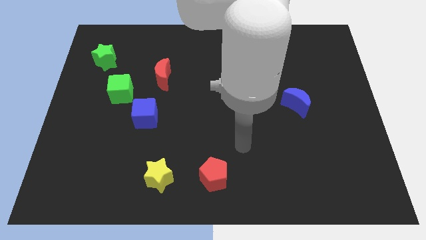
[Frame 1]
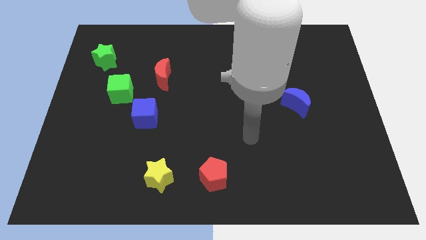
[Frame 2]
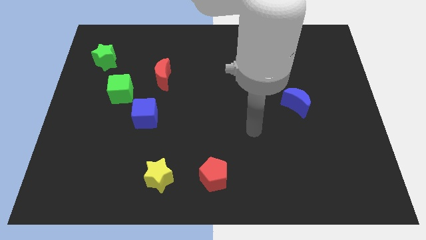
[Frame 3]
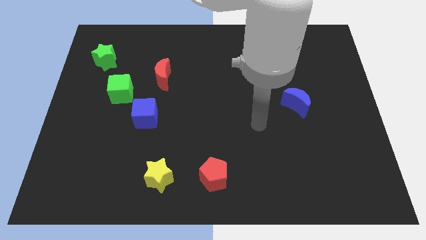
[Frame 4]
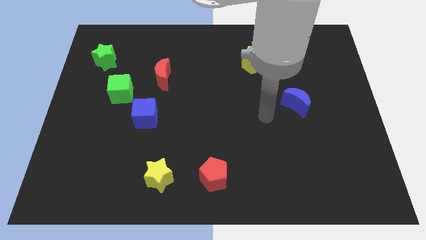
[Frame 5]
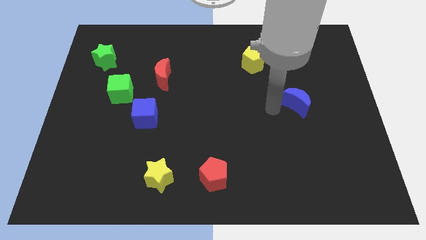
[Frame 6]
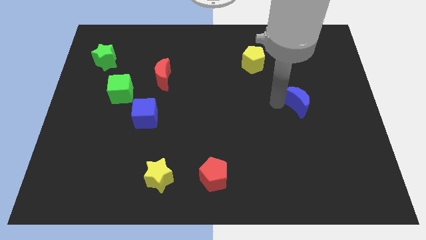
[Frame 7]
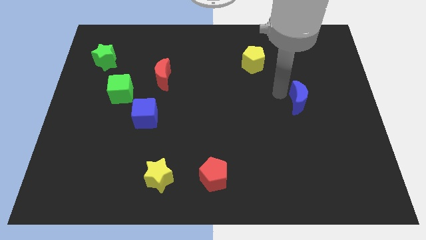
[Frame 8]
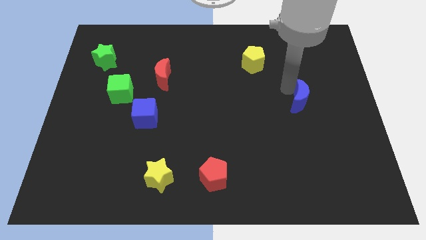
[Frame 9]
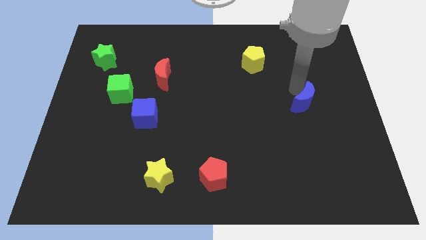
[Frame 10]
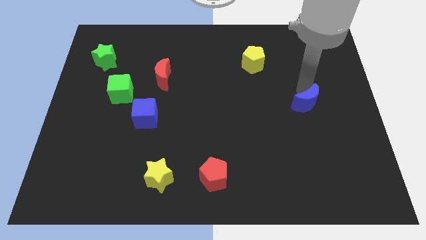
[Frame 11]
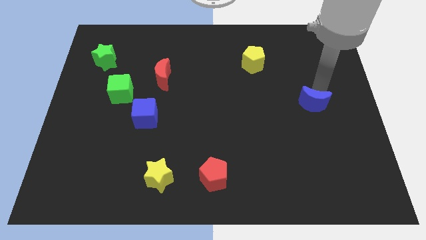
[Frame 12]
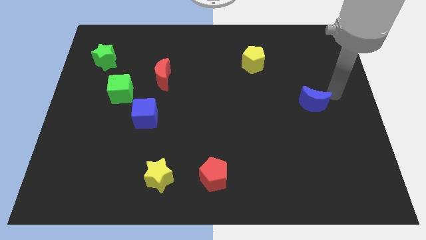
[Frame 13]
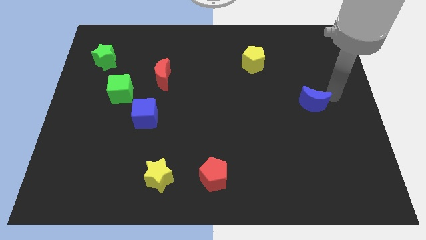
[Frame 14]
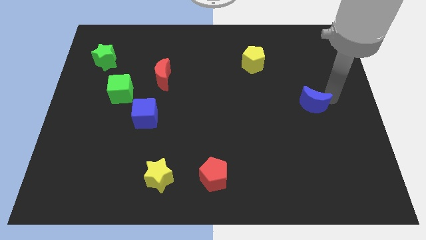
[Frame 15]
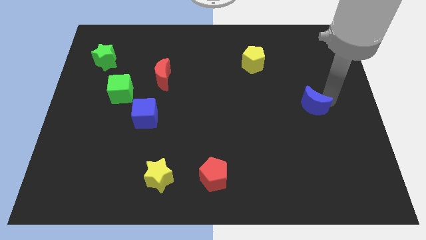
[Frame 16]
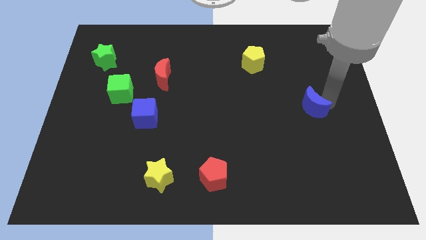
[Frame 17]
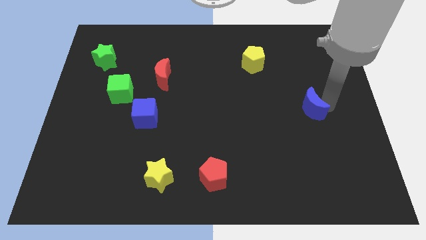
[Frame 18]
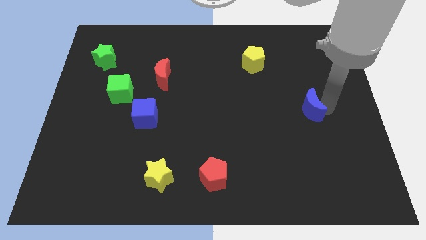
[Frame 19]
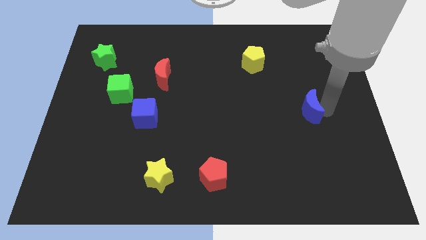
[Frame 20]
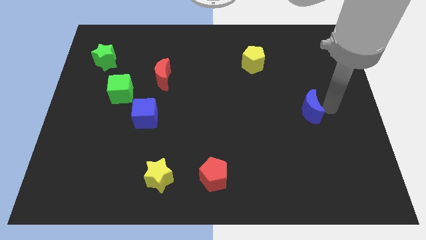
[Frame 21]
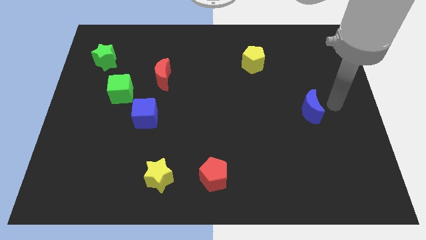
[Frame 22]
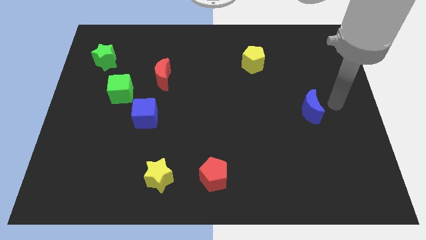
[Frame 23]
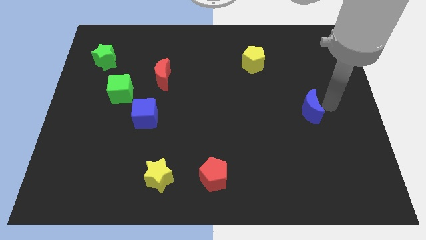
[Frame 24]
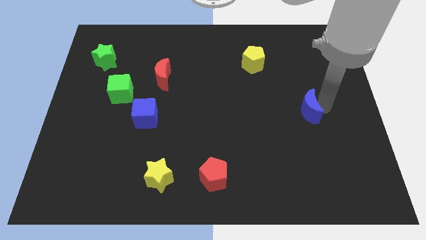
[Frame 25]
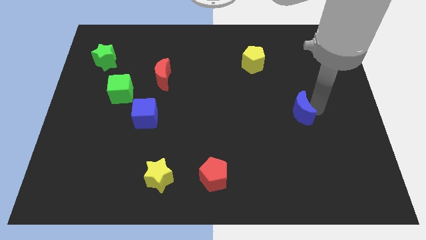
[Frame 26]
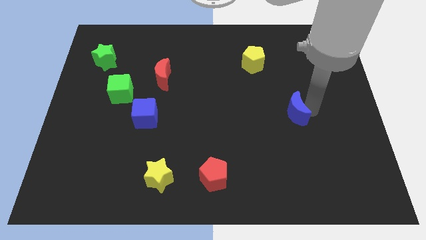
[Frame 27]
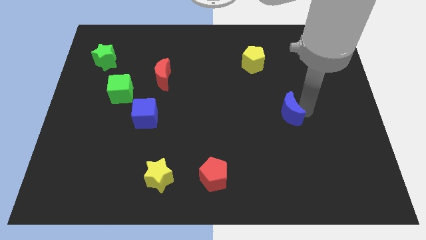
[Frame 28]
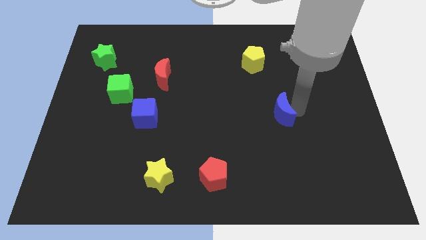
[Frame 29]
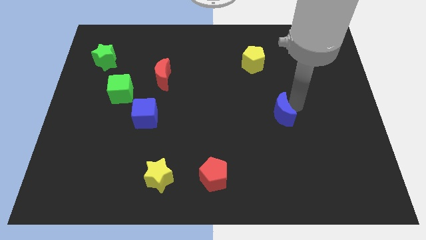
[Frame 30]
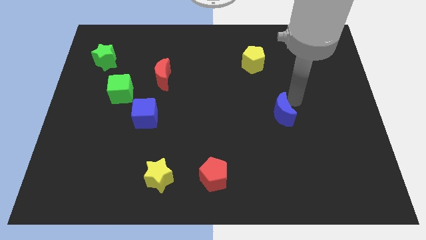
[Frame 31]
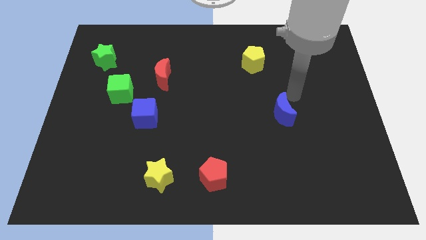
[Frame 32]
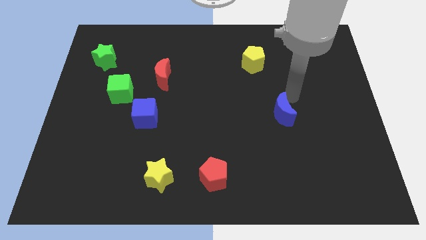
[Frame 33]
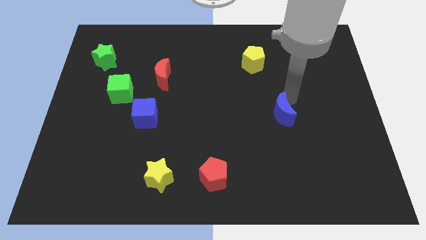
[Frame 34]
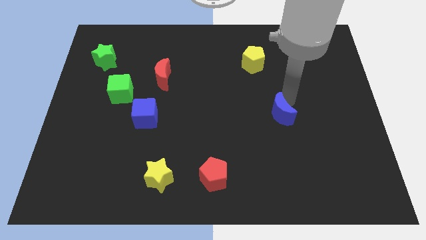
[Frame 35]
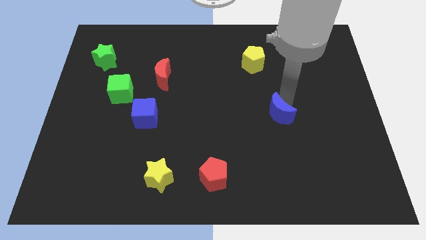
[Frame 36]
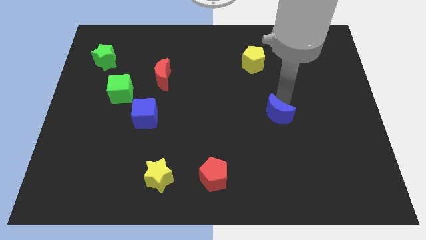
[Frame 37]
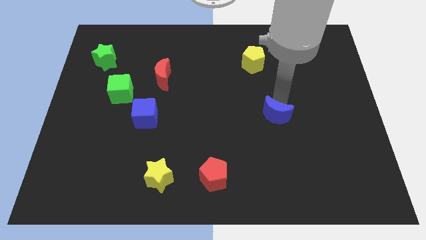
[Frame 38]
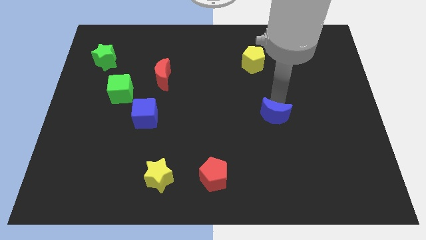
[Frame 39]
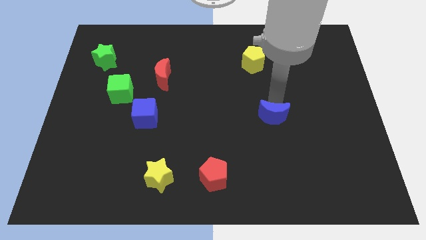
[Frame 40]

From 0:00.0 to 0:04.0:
push the blue moon down and then to the left somewhat

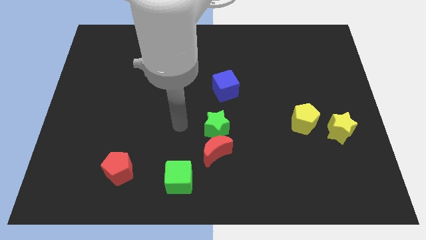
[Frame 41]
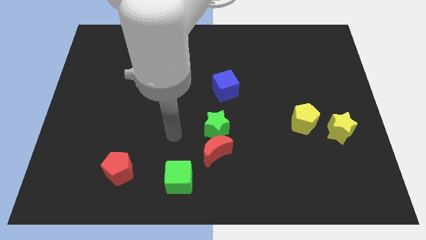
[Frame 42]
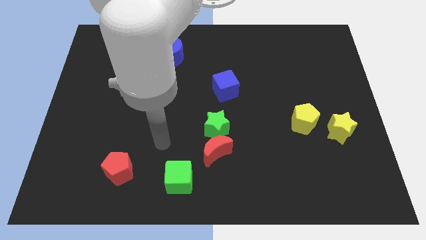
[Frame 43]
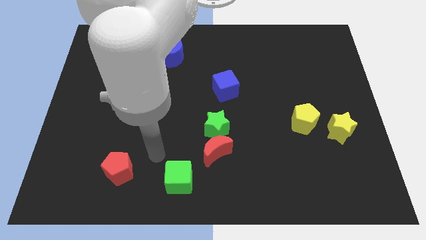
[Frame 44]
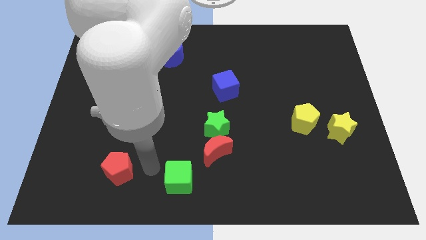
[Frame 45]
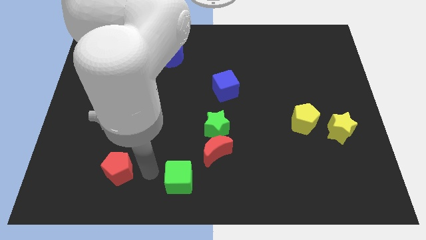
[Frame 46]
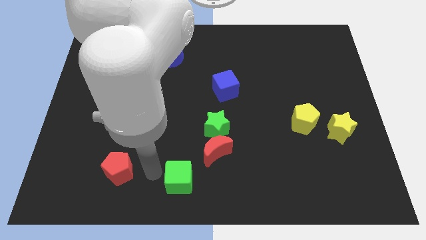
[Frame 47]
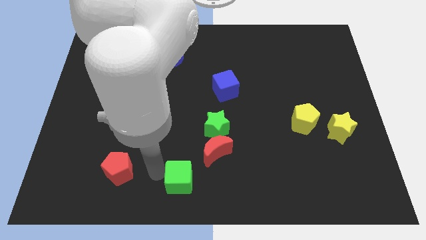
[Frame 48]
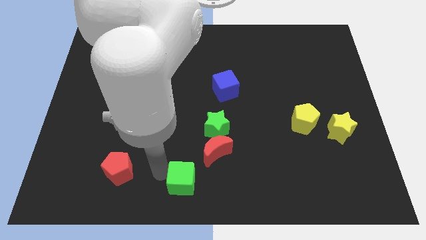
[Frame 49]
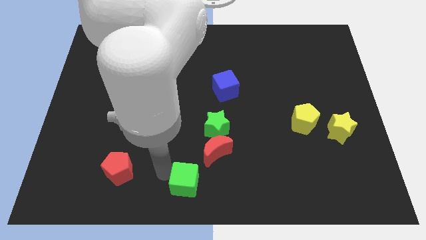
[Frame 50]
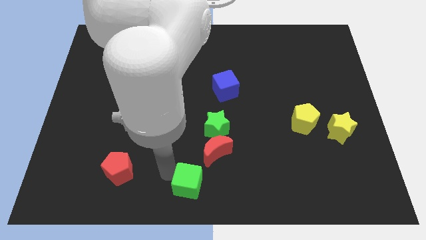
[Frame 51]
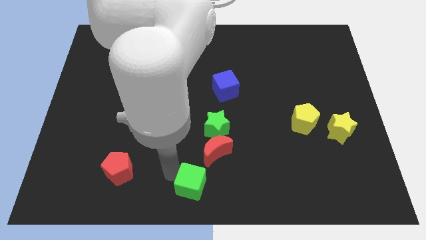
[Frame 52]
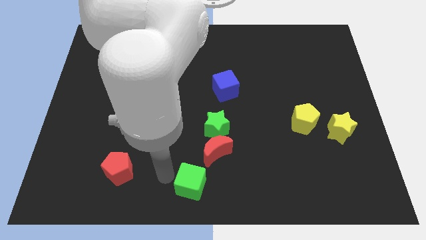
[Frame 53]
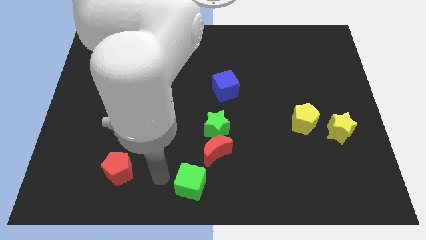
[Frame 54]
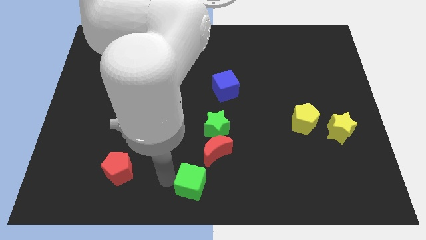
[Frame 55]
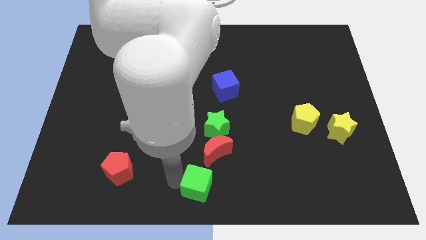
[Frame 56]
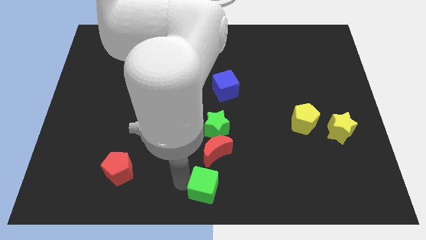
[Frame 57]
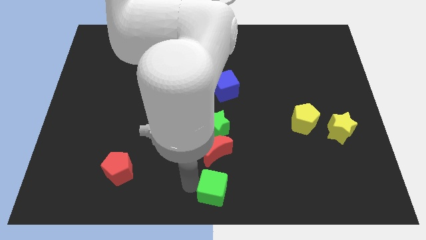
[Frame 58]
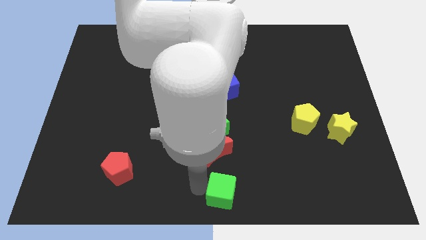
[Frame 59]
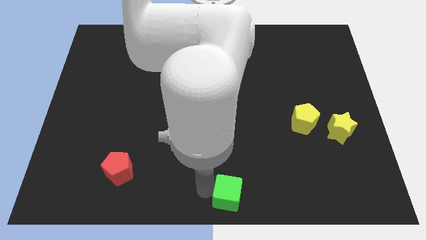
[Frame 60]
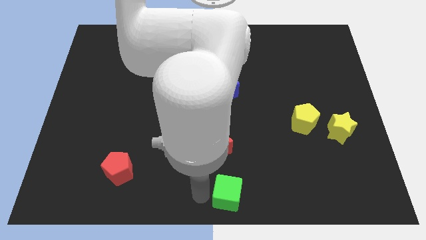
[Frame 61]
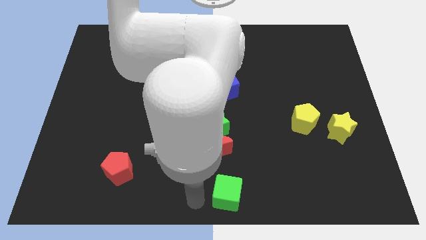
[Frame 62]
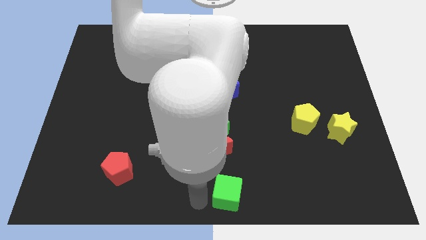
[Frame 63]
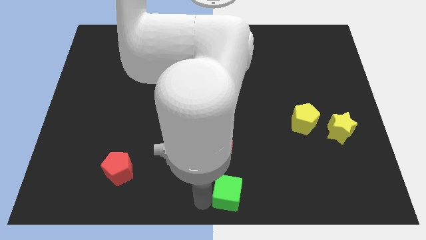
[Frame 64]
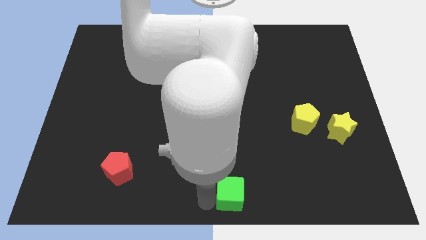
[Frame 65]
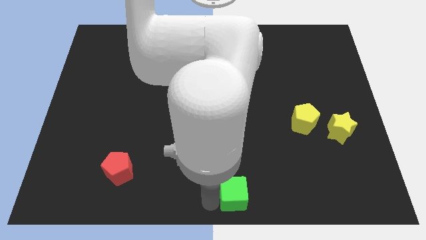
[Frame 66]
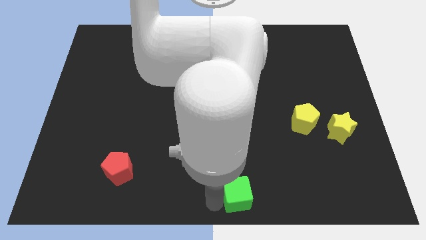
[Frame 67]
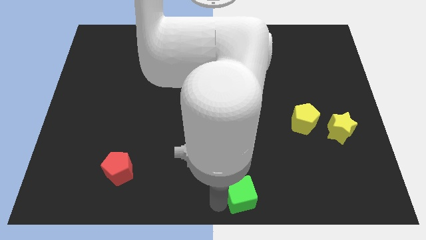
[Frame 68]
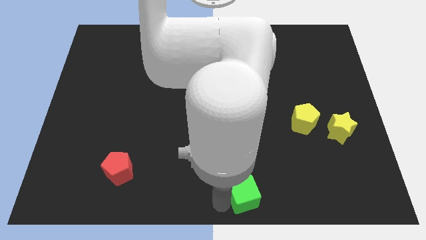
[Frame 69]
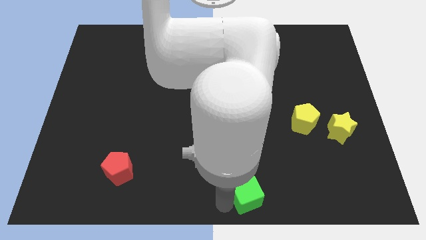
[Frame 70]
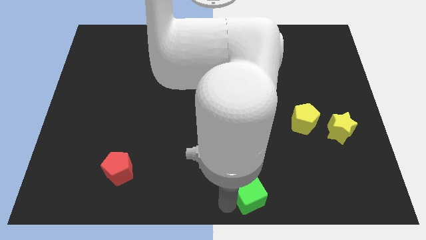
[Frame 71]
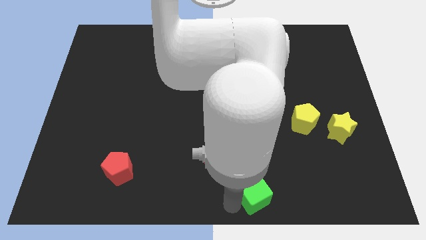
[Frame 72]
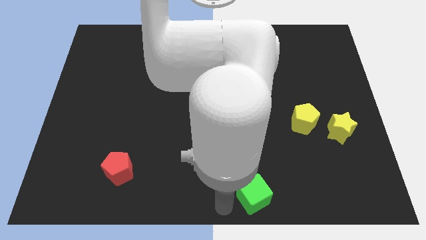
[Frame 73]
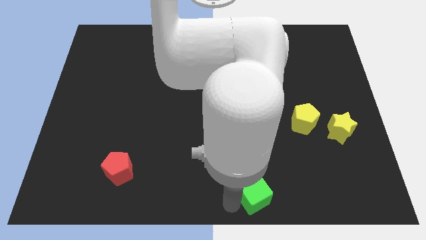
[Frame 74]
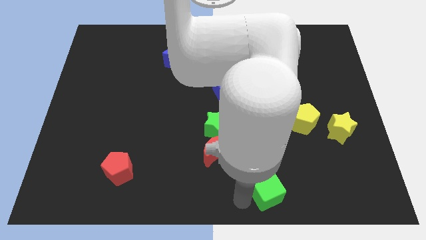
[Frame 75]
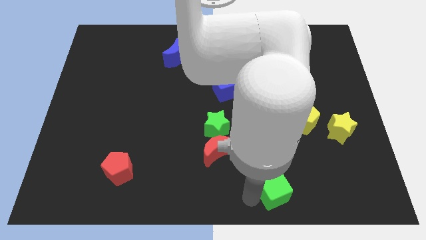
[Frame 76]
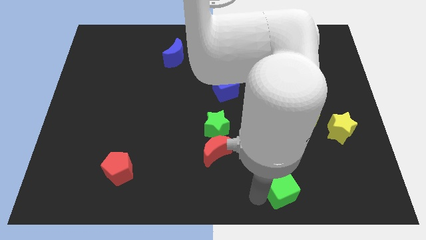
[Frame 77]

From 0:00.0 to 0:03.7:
move the green cube to the right

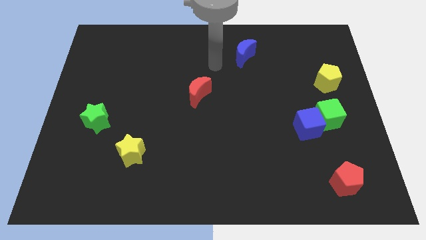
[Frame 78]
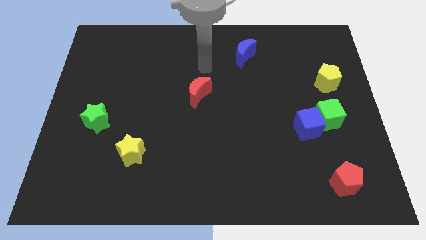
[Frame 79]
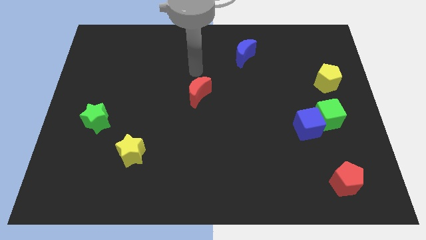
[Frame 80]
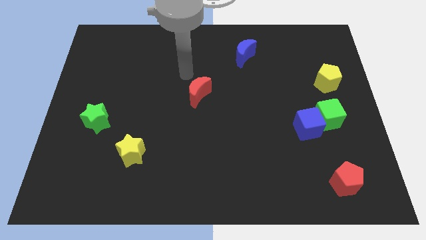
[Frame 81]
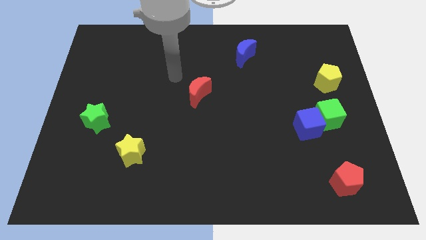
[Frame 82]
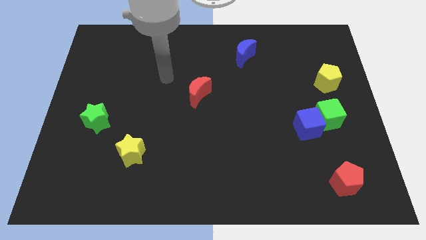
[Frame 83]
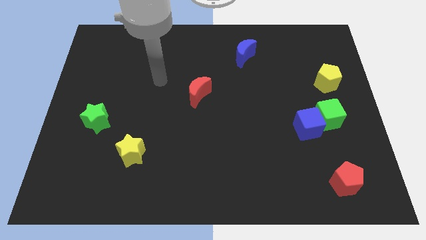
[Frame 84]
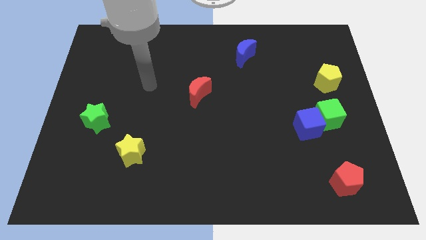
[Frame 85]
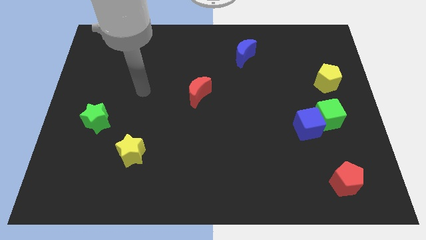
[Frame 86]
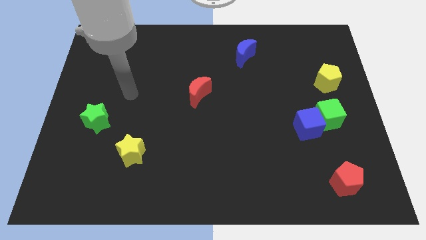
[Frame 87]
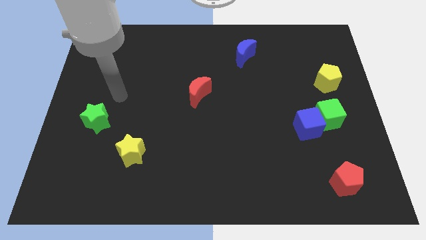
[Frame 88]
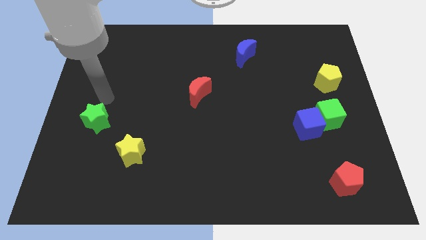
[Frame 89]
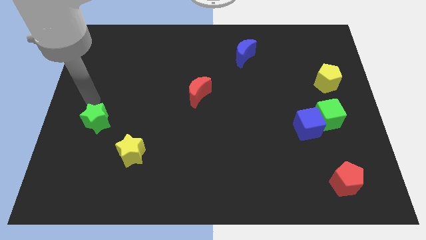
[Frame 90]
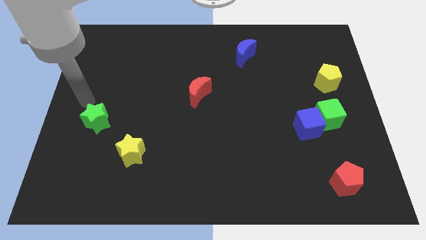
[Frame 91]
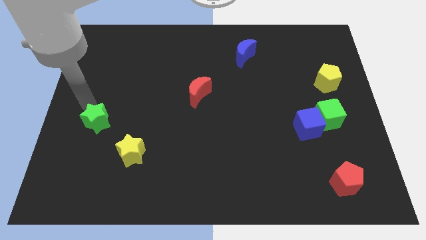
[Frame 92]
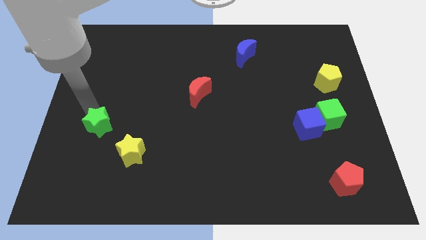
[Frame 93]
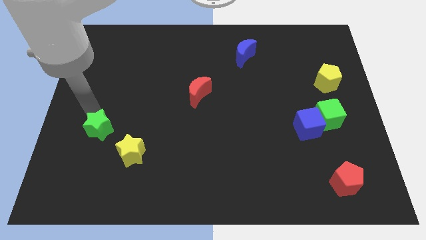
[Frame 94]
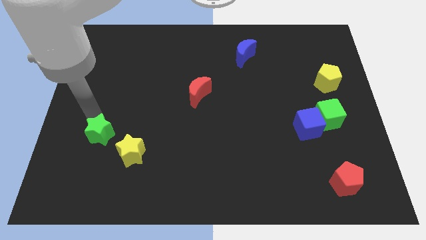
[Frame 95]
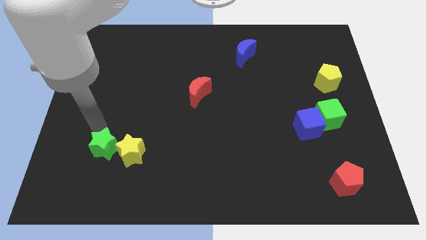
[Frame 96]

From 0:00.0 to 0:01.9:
slightly slide the green star downwards and then right
